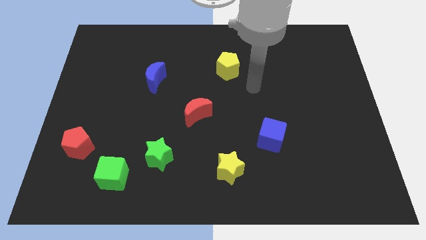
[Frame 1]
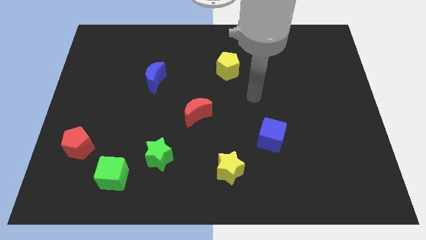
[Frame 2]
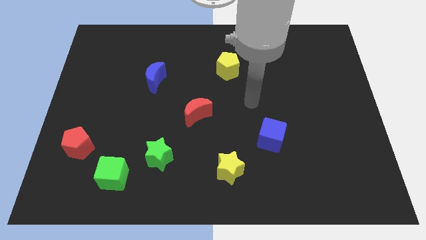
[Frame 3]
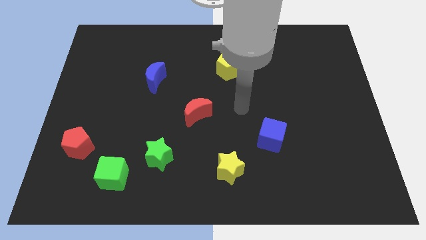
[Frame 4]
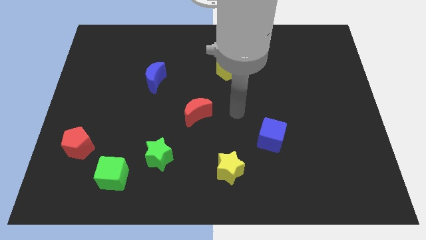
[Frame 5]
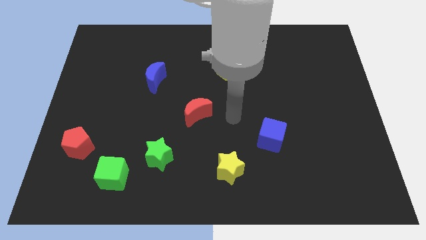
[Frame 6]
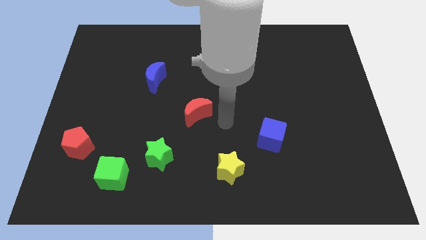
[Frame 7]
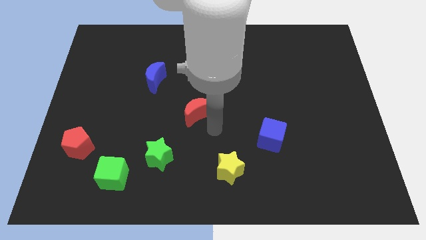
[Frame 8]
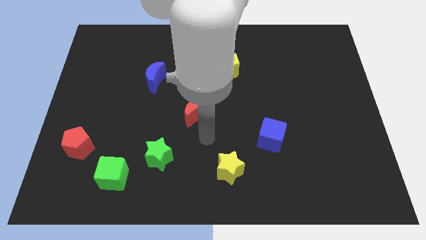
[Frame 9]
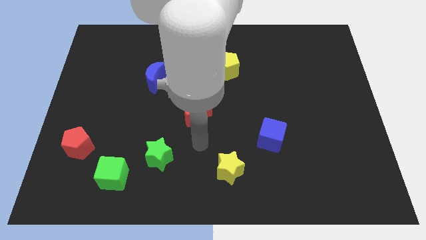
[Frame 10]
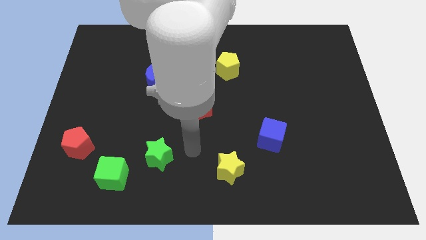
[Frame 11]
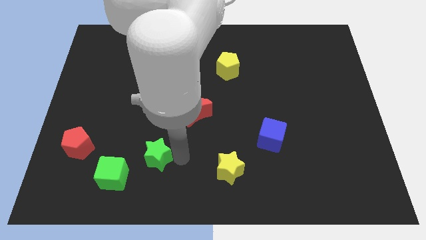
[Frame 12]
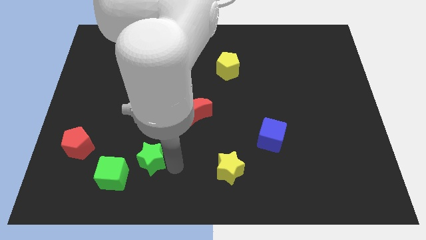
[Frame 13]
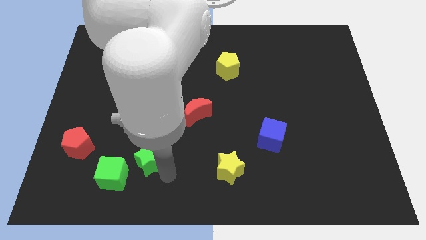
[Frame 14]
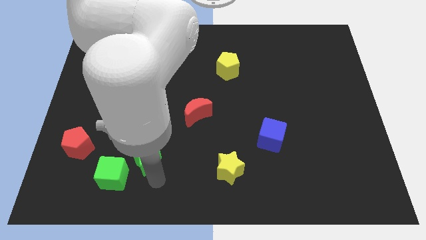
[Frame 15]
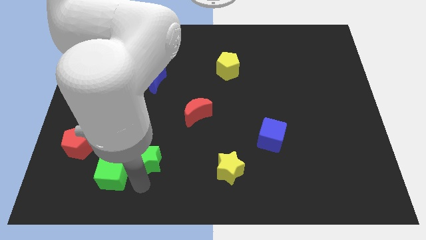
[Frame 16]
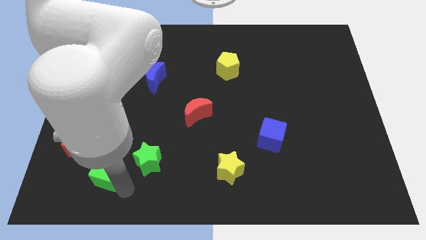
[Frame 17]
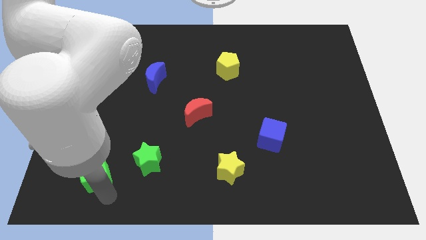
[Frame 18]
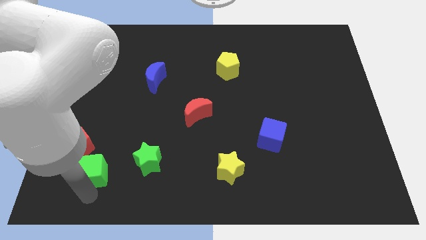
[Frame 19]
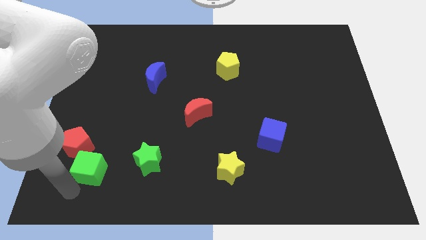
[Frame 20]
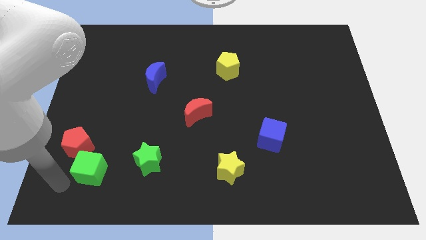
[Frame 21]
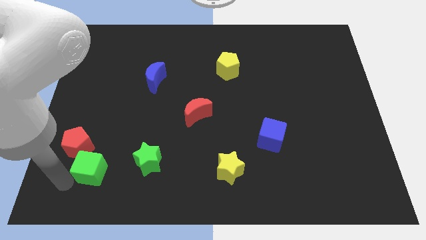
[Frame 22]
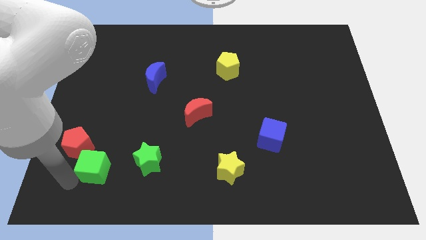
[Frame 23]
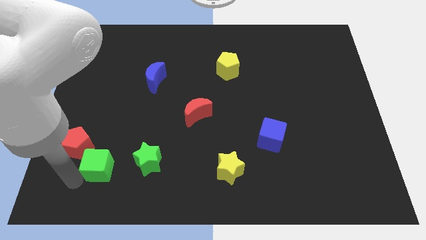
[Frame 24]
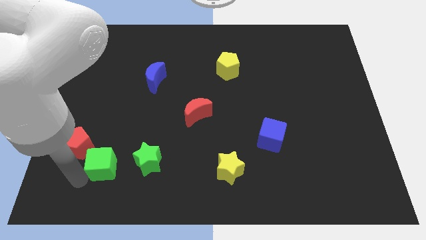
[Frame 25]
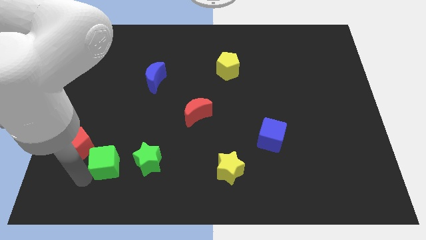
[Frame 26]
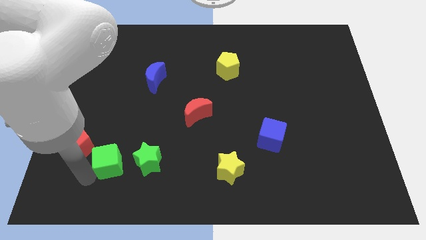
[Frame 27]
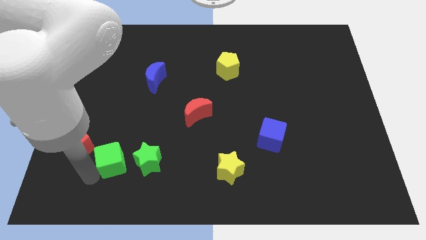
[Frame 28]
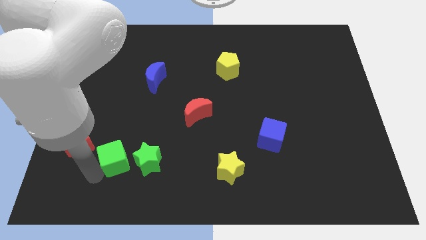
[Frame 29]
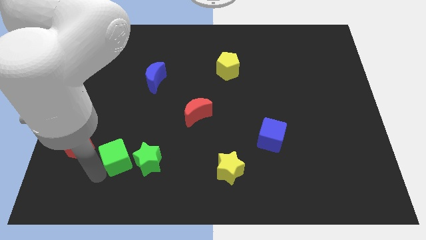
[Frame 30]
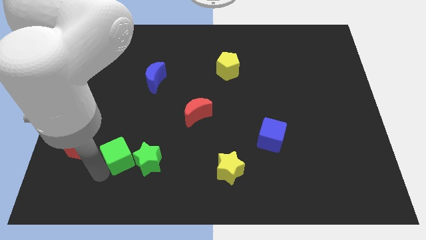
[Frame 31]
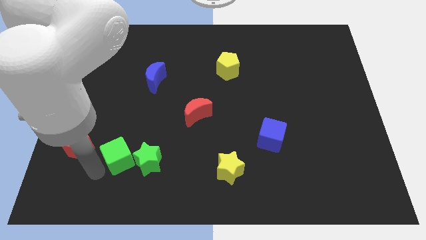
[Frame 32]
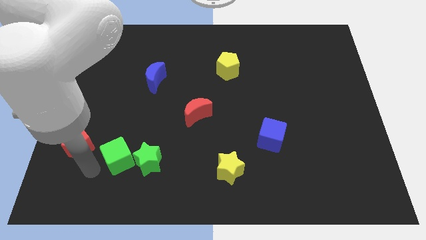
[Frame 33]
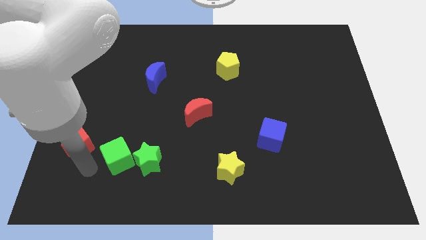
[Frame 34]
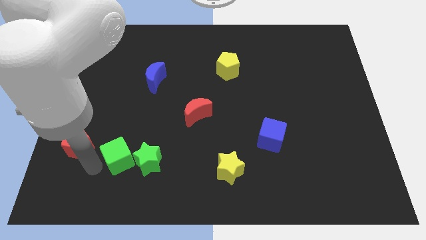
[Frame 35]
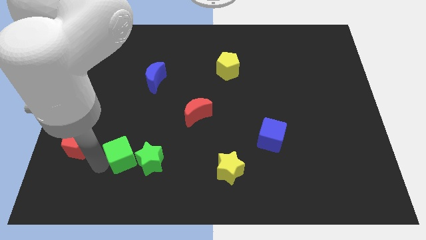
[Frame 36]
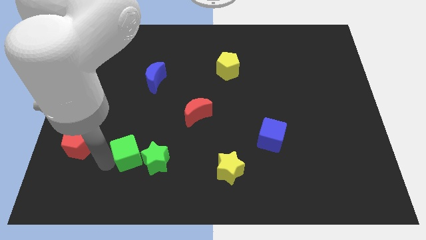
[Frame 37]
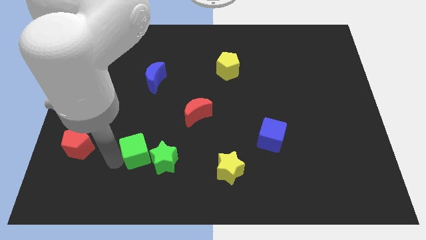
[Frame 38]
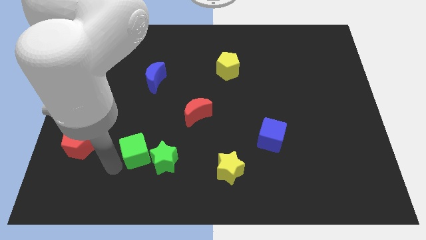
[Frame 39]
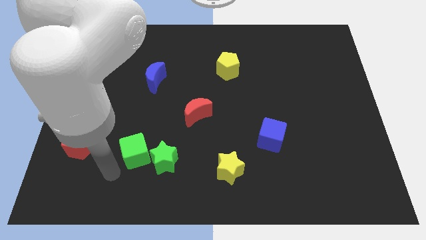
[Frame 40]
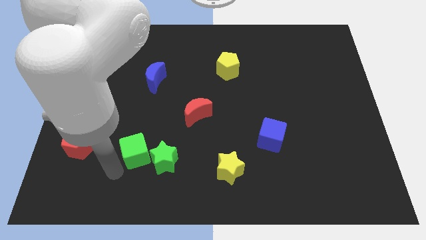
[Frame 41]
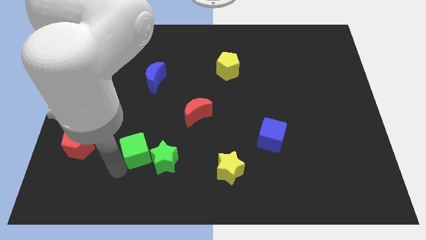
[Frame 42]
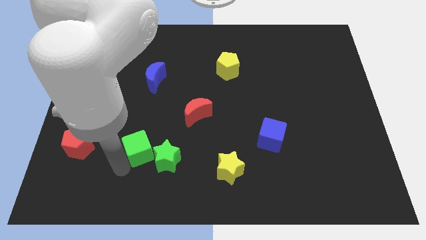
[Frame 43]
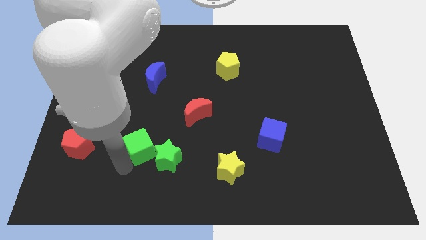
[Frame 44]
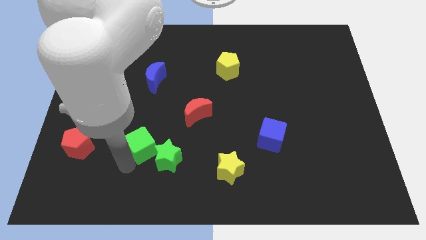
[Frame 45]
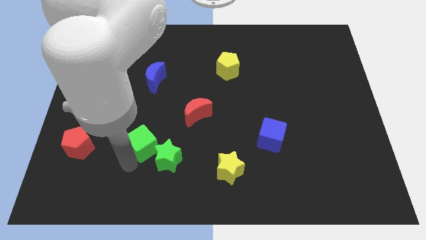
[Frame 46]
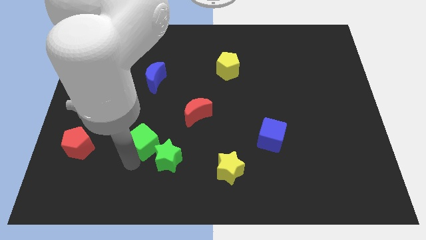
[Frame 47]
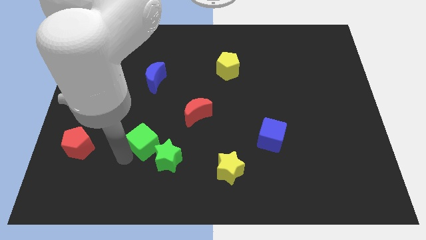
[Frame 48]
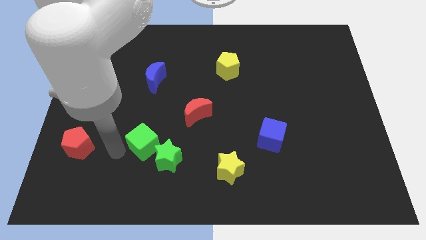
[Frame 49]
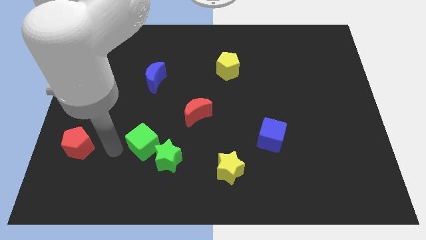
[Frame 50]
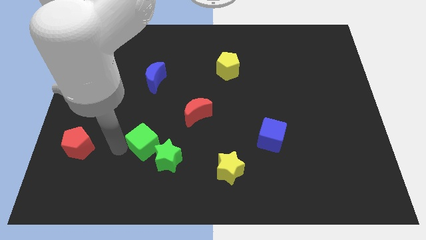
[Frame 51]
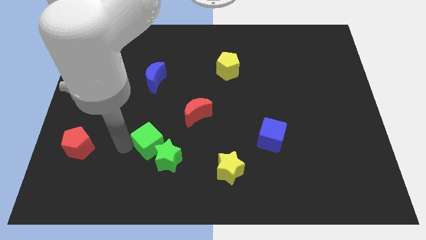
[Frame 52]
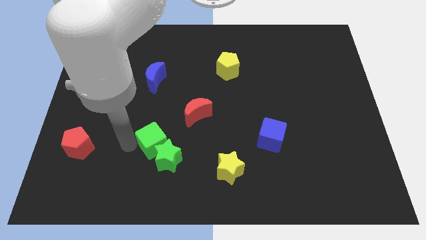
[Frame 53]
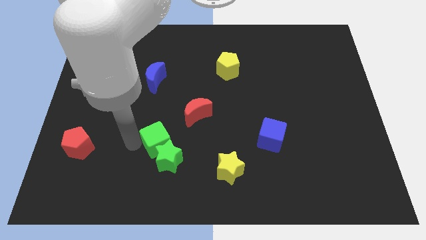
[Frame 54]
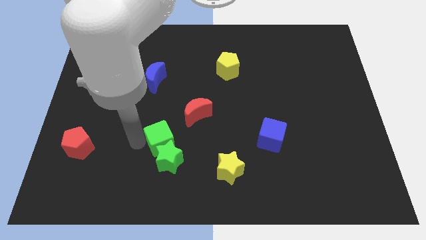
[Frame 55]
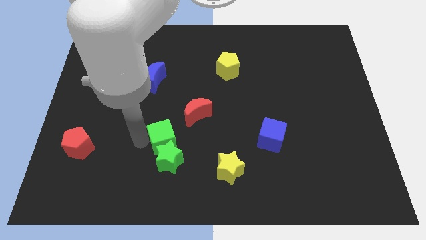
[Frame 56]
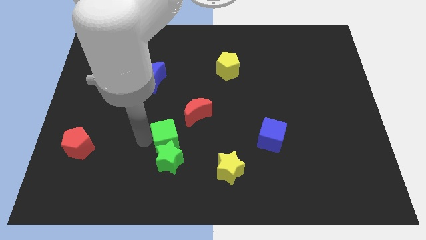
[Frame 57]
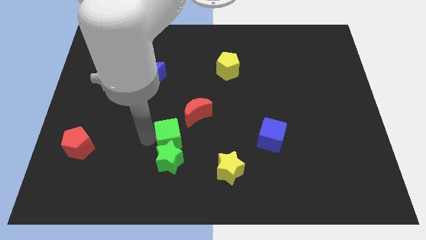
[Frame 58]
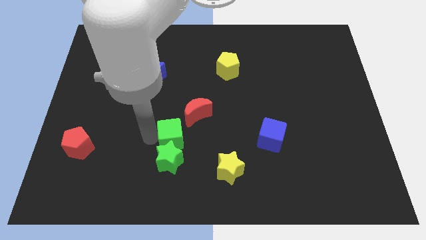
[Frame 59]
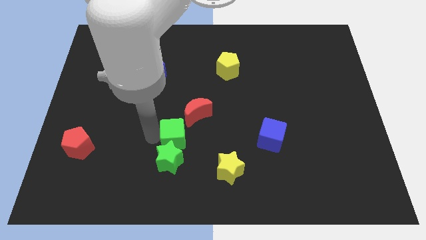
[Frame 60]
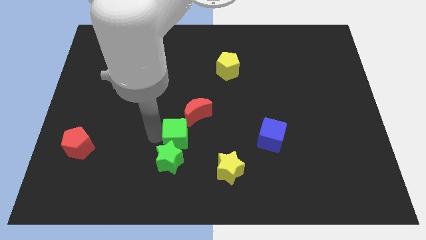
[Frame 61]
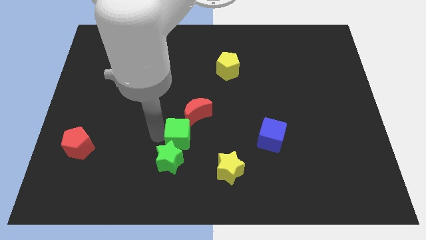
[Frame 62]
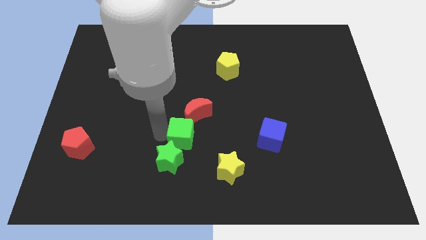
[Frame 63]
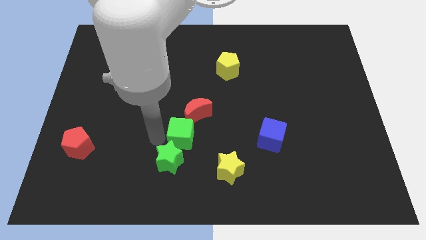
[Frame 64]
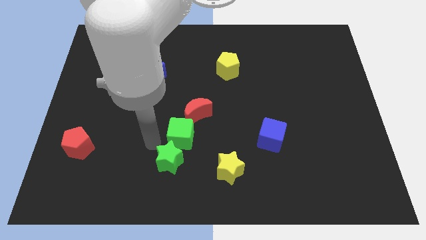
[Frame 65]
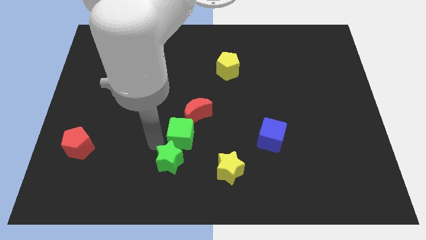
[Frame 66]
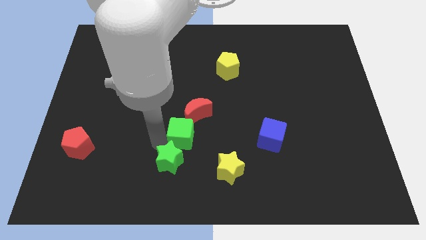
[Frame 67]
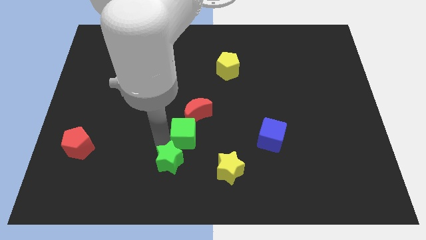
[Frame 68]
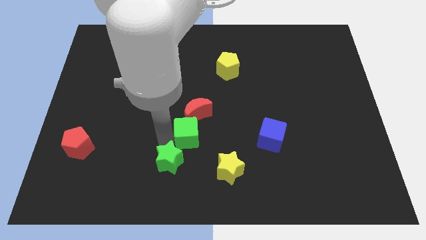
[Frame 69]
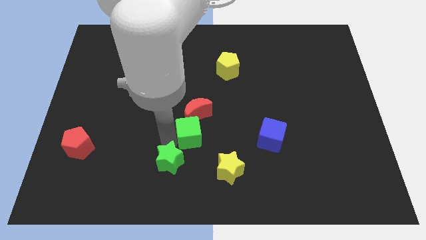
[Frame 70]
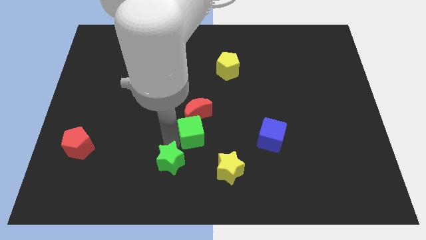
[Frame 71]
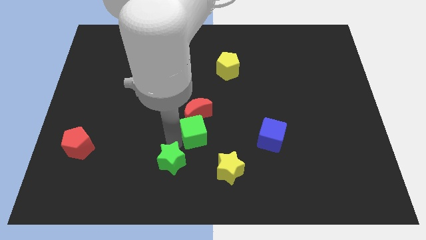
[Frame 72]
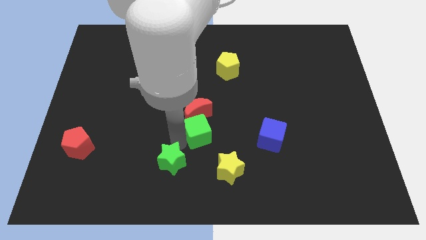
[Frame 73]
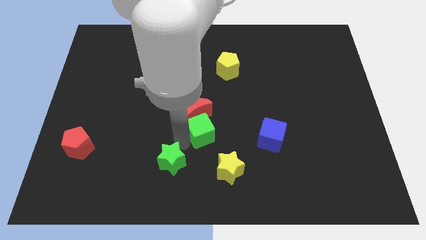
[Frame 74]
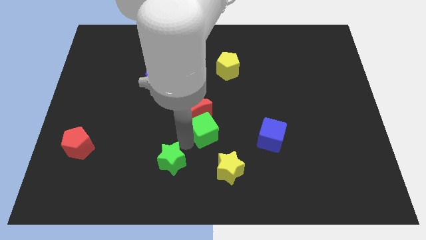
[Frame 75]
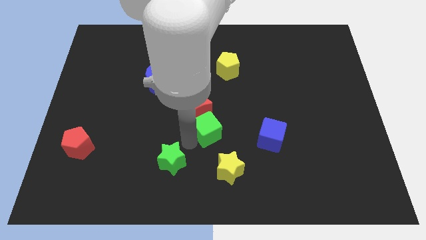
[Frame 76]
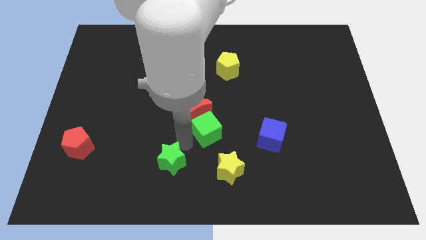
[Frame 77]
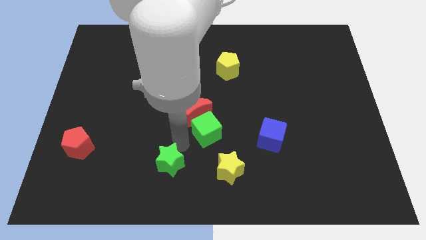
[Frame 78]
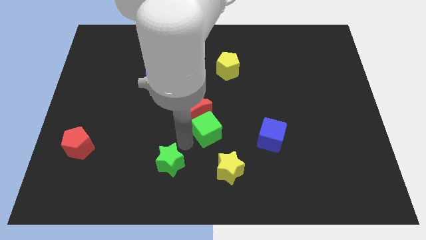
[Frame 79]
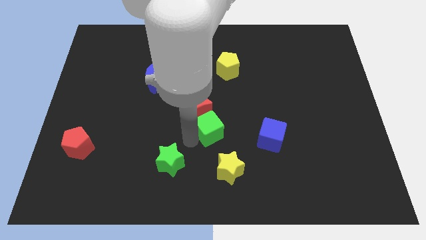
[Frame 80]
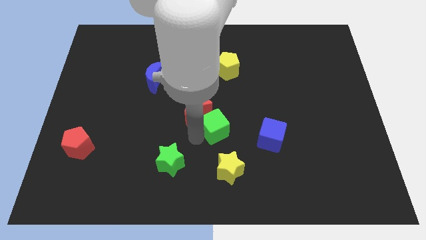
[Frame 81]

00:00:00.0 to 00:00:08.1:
move the green cube right of the red moon
